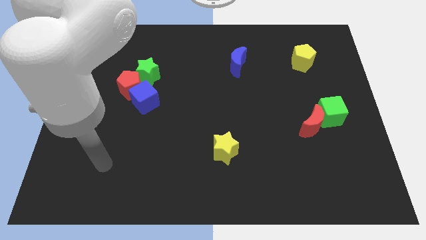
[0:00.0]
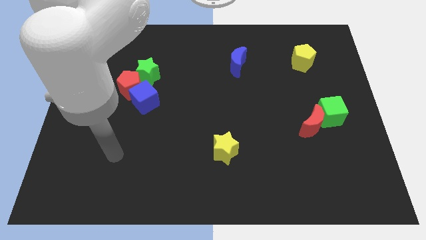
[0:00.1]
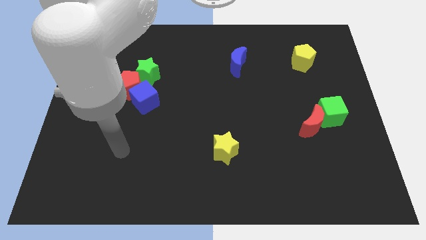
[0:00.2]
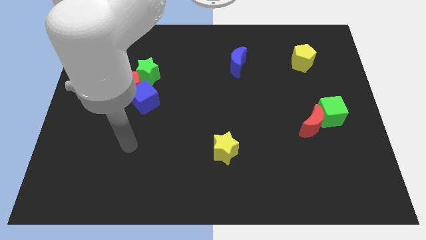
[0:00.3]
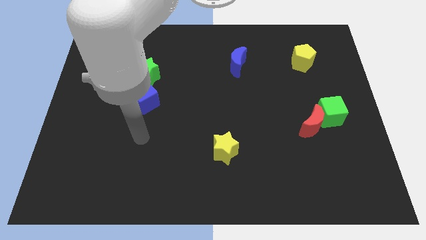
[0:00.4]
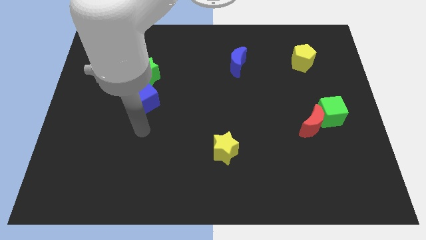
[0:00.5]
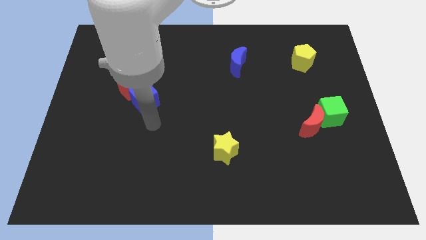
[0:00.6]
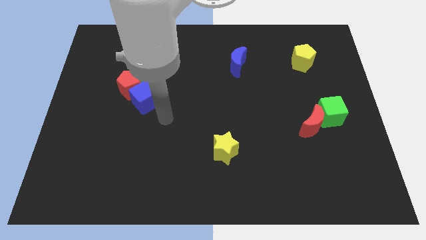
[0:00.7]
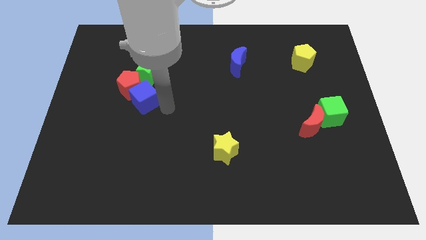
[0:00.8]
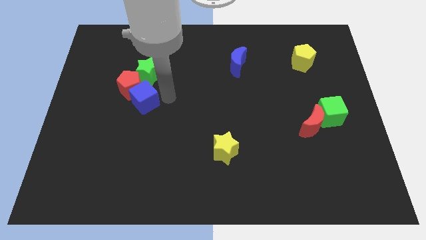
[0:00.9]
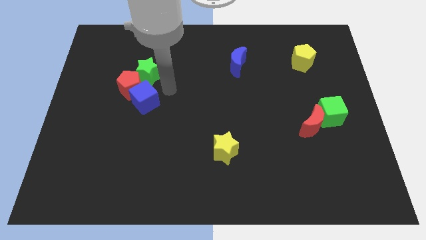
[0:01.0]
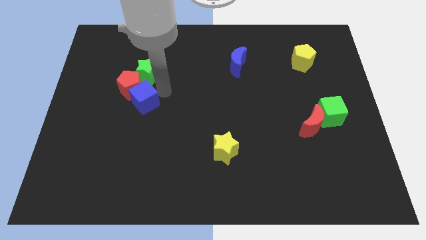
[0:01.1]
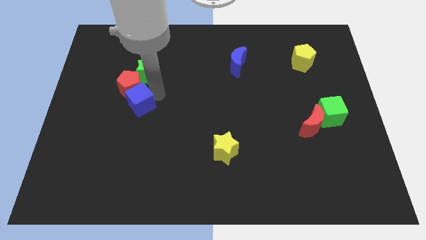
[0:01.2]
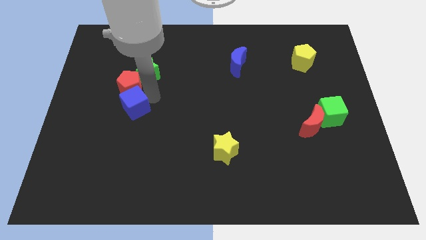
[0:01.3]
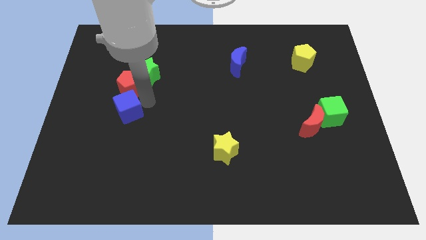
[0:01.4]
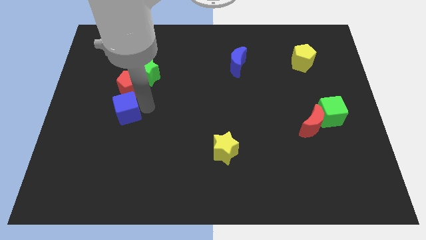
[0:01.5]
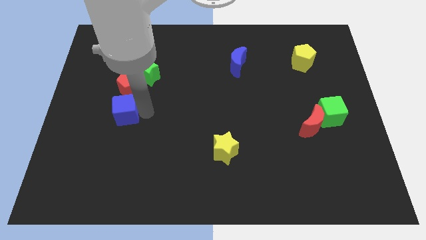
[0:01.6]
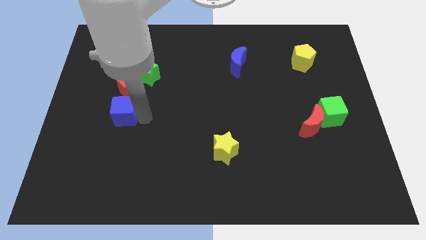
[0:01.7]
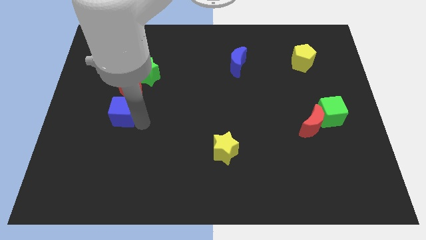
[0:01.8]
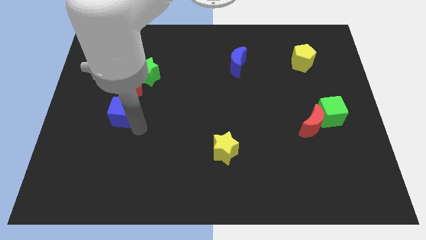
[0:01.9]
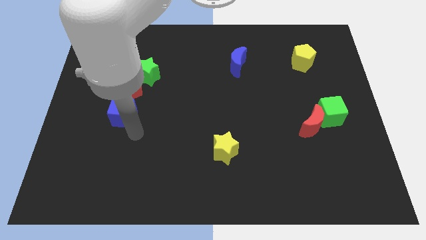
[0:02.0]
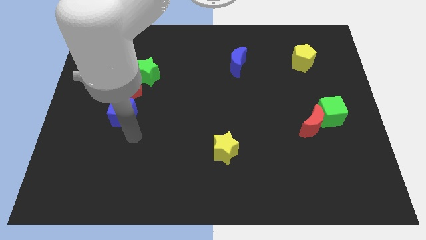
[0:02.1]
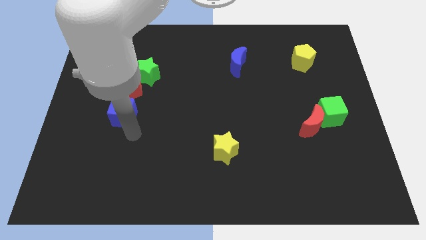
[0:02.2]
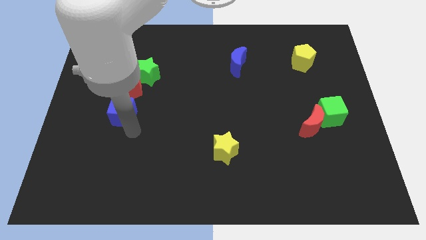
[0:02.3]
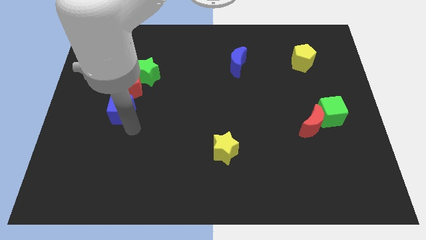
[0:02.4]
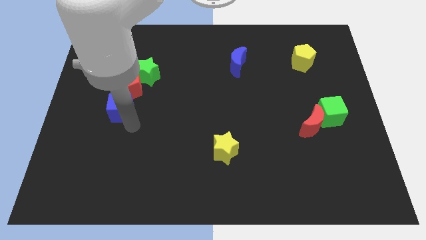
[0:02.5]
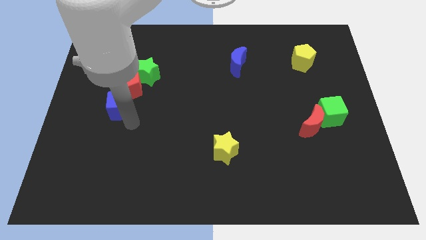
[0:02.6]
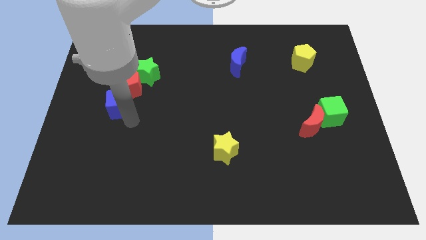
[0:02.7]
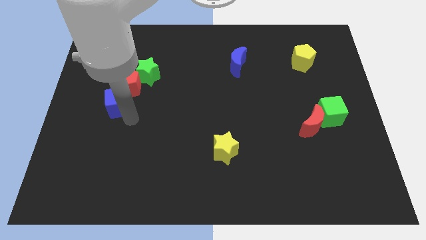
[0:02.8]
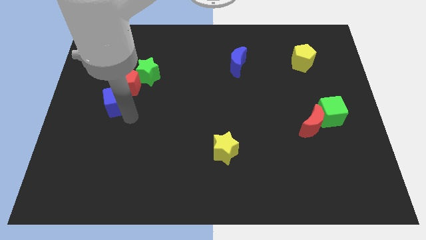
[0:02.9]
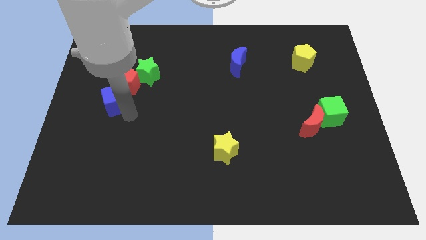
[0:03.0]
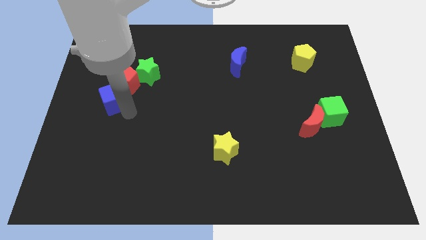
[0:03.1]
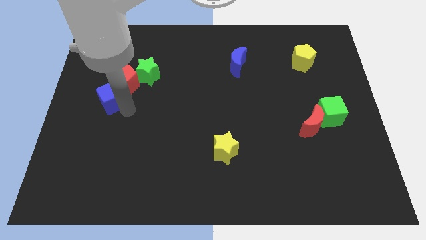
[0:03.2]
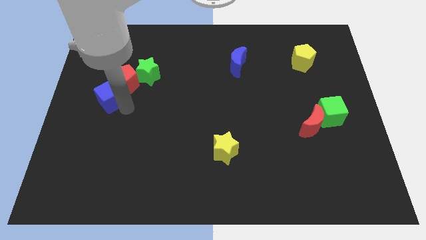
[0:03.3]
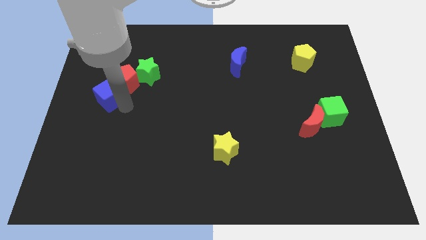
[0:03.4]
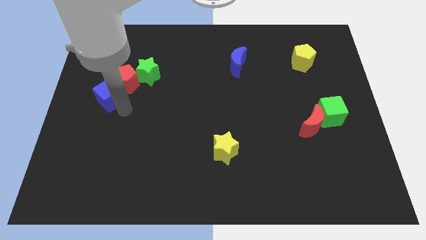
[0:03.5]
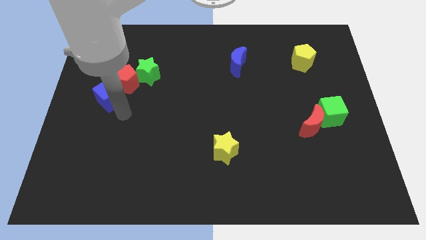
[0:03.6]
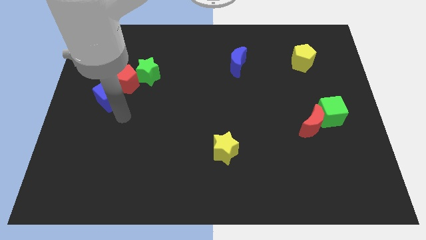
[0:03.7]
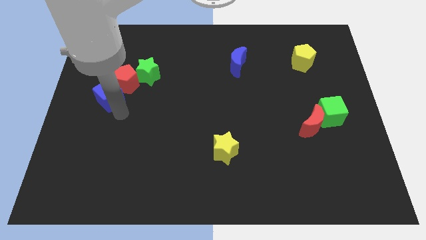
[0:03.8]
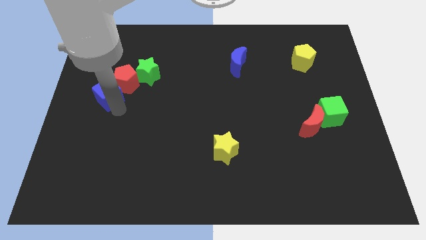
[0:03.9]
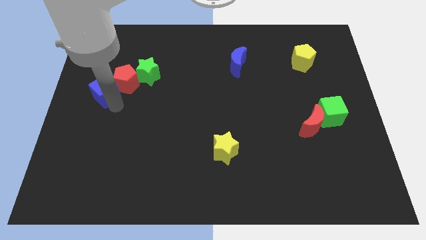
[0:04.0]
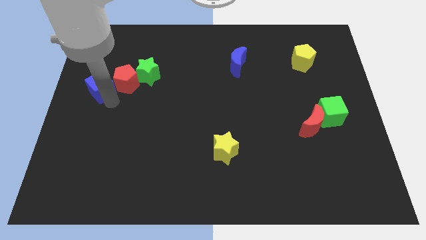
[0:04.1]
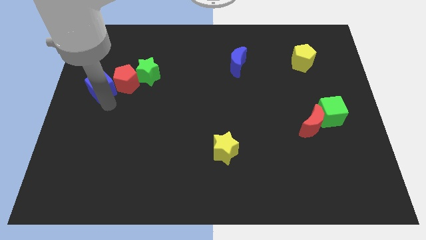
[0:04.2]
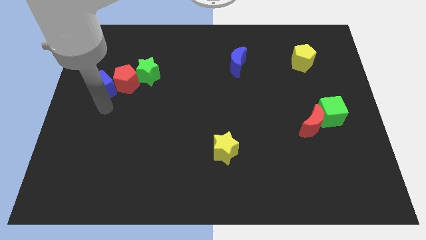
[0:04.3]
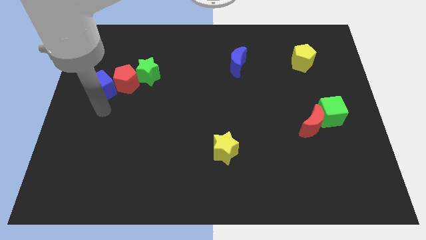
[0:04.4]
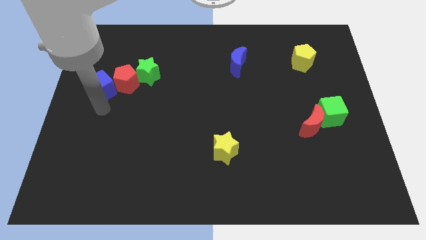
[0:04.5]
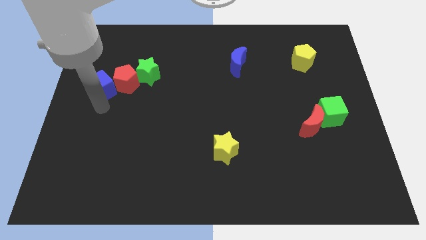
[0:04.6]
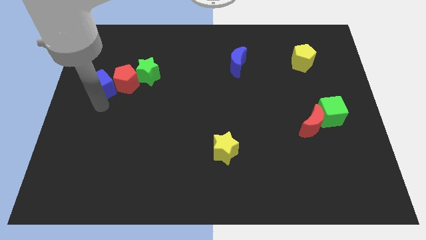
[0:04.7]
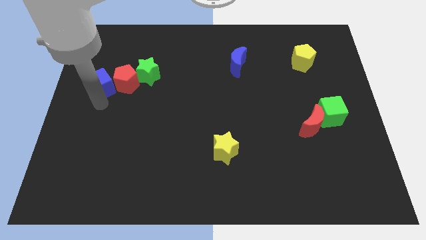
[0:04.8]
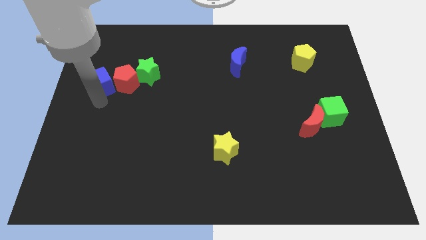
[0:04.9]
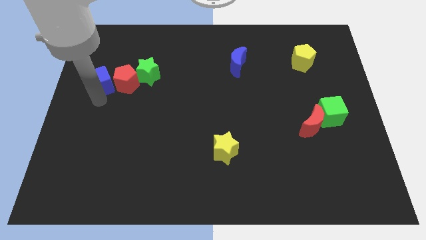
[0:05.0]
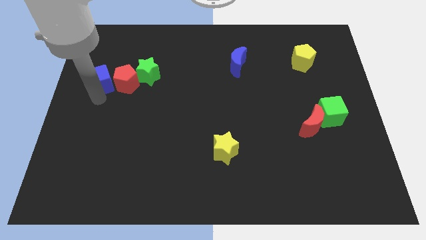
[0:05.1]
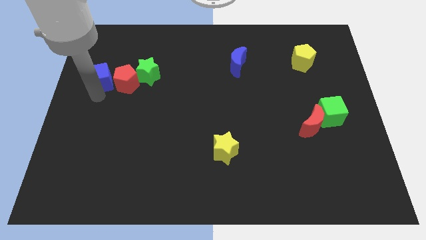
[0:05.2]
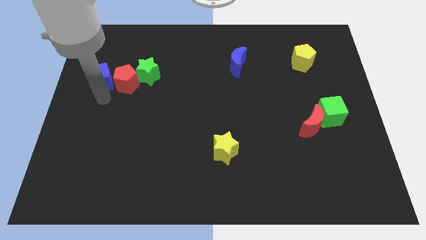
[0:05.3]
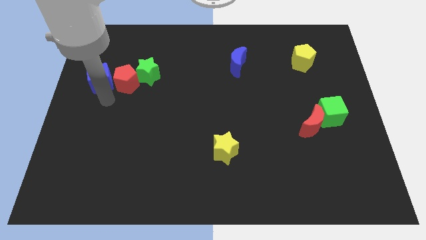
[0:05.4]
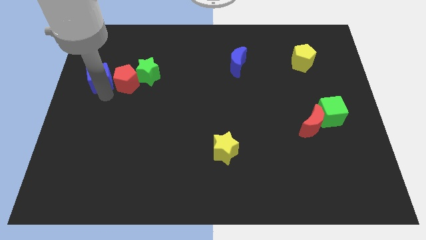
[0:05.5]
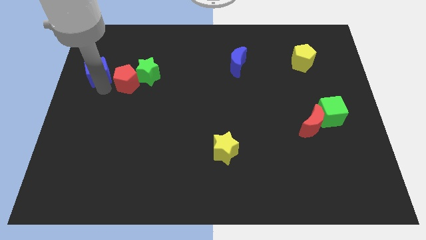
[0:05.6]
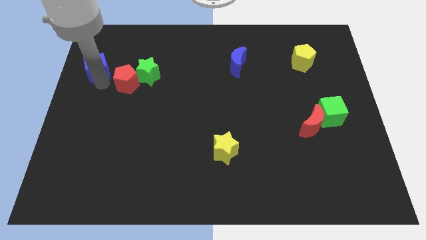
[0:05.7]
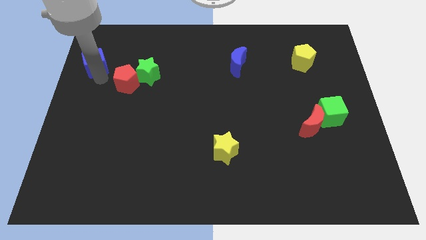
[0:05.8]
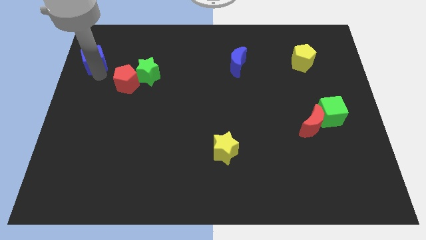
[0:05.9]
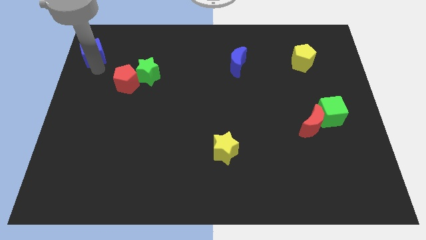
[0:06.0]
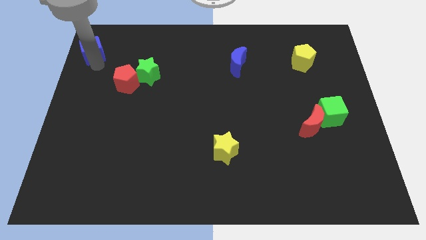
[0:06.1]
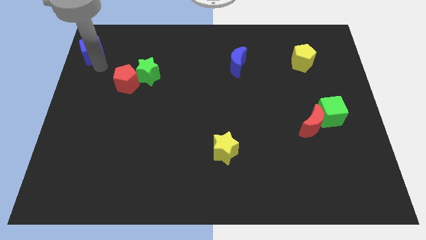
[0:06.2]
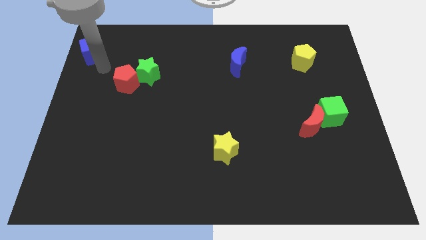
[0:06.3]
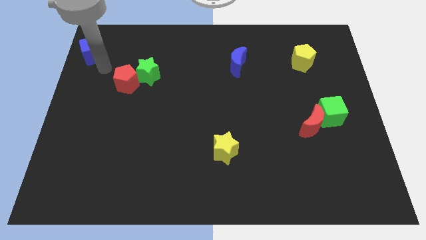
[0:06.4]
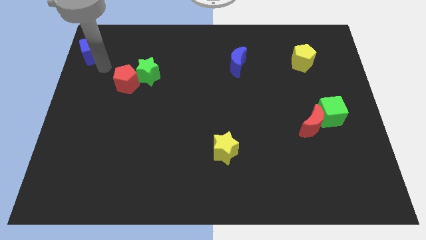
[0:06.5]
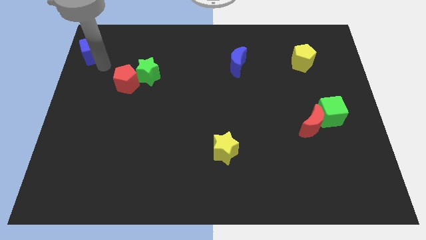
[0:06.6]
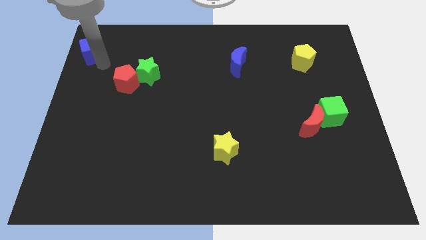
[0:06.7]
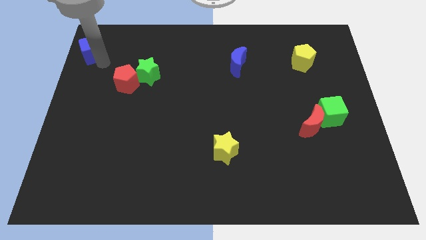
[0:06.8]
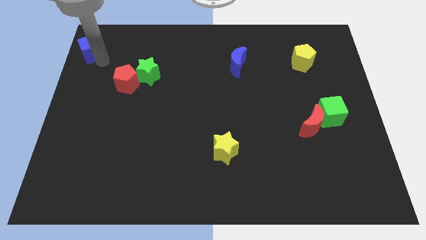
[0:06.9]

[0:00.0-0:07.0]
move the blue cube to the top left
